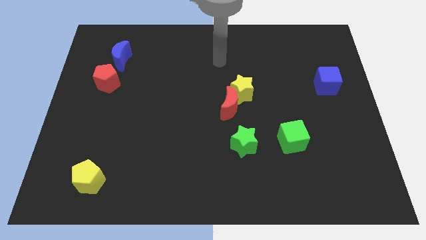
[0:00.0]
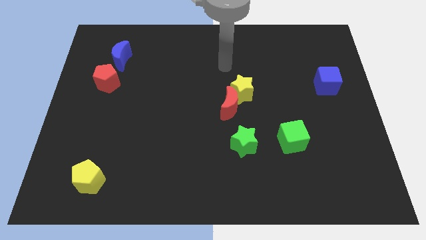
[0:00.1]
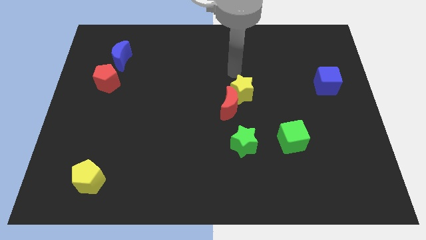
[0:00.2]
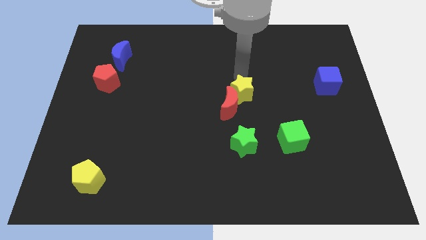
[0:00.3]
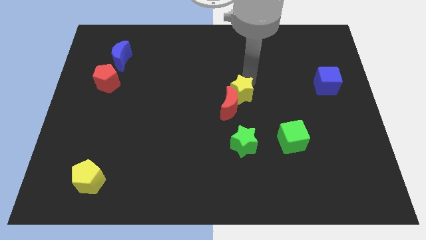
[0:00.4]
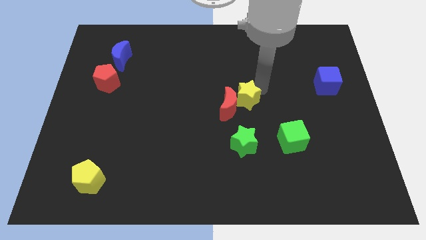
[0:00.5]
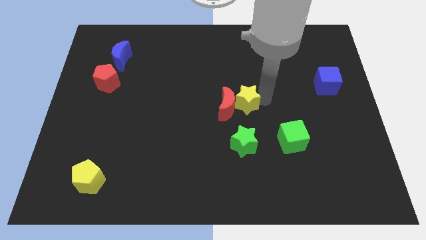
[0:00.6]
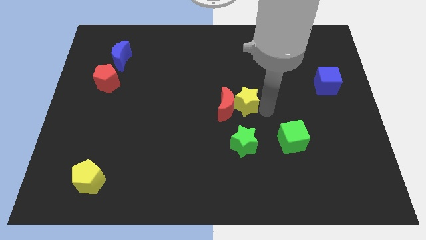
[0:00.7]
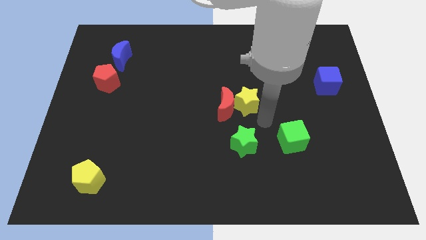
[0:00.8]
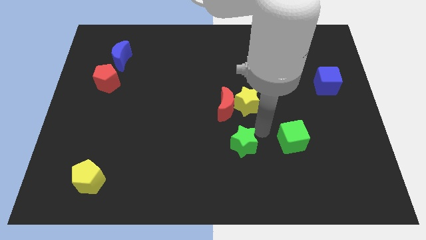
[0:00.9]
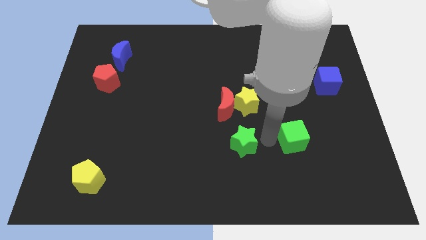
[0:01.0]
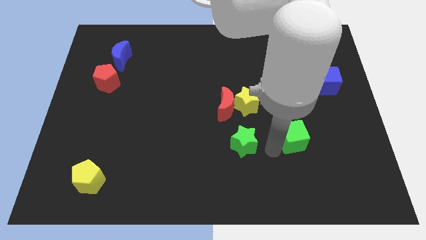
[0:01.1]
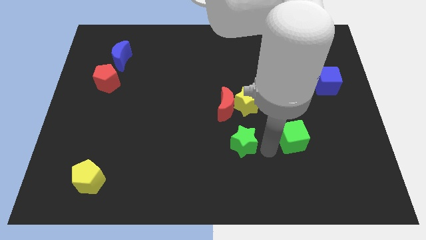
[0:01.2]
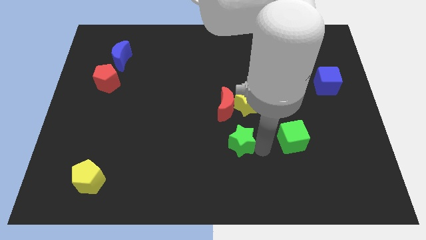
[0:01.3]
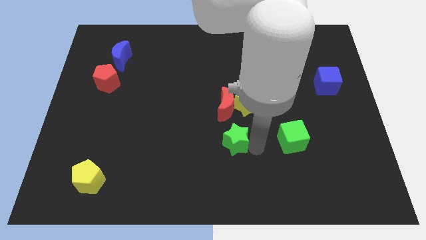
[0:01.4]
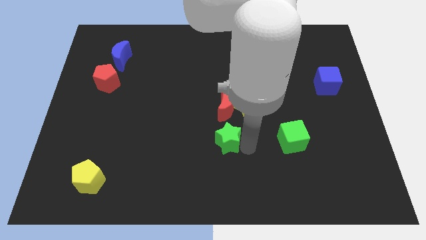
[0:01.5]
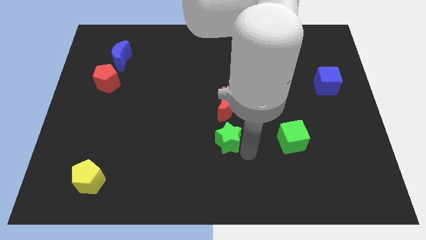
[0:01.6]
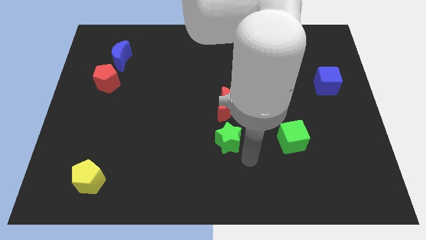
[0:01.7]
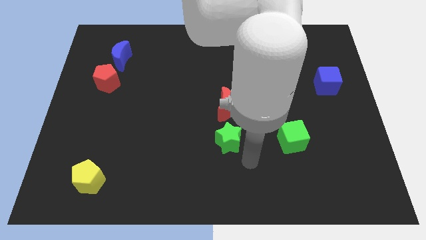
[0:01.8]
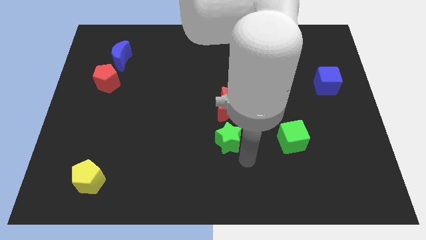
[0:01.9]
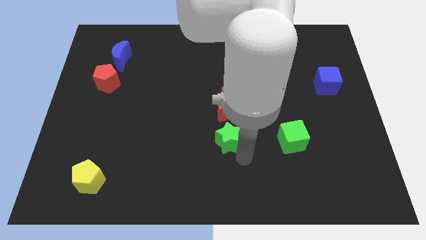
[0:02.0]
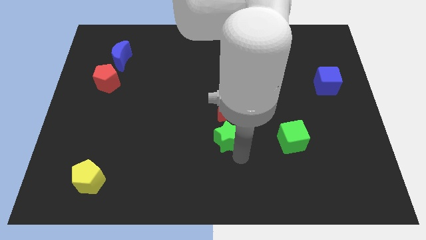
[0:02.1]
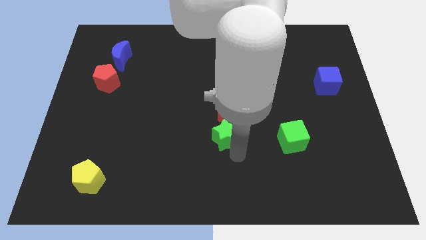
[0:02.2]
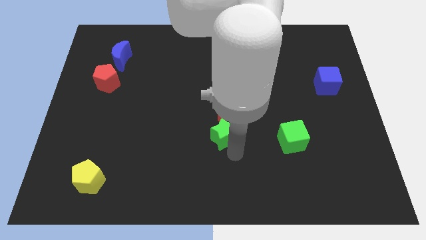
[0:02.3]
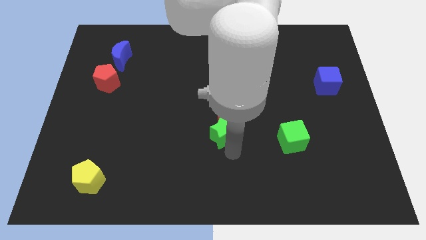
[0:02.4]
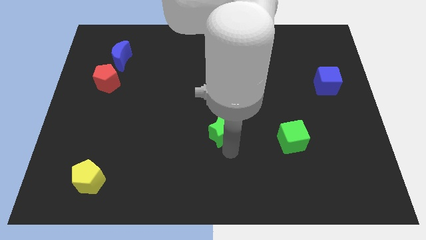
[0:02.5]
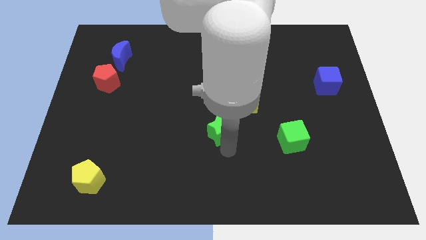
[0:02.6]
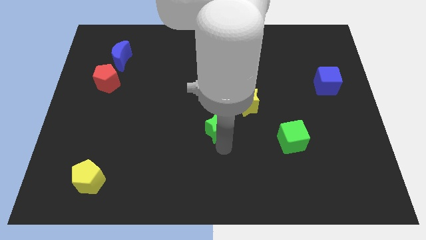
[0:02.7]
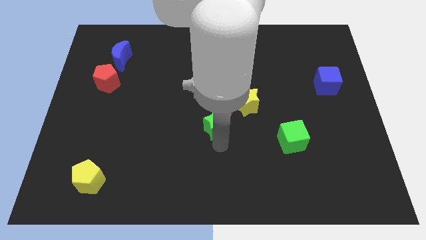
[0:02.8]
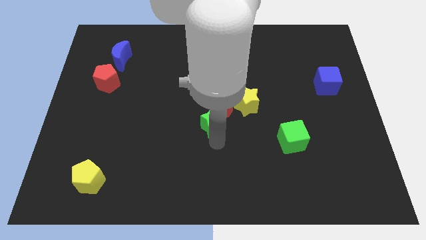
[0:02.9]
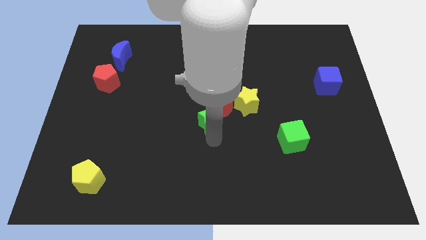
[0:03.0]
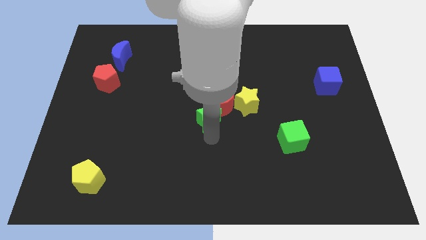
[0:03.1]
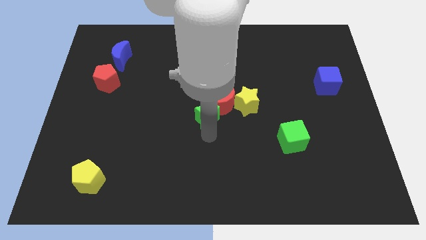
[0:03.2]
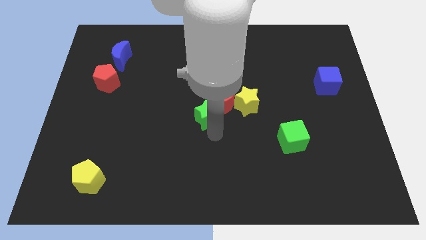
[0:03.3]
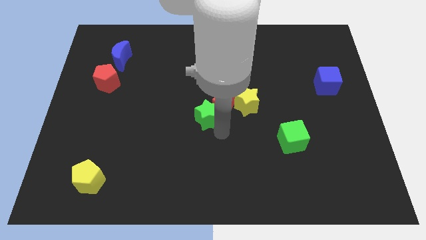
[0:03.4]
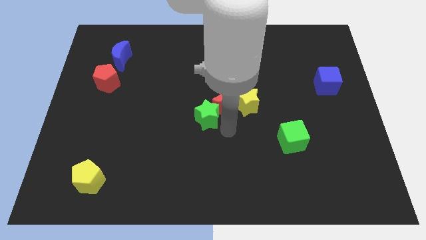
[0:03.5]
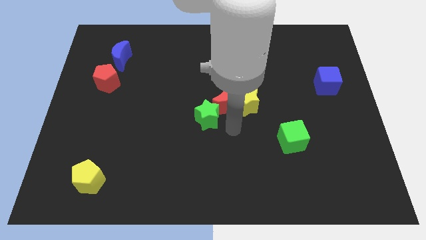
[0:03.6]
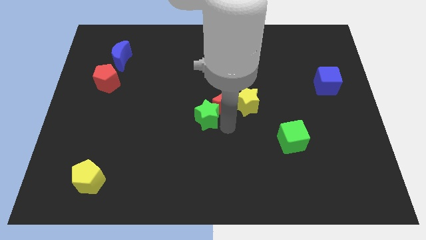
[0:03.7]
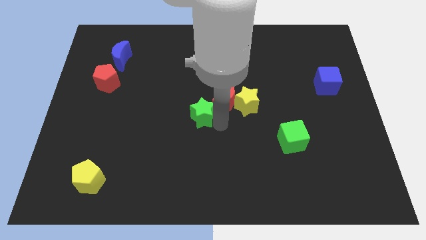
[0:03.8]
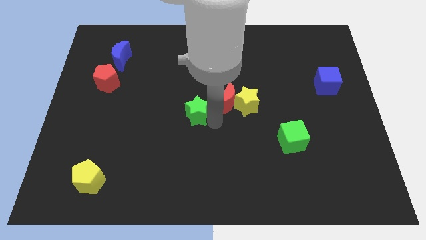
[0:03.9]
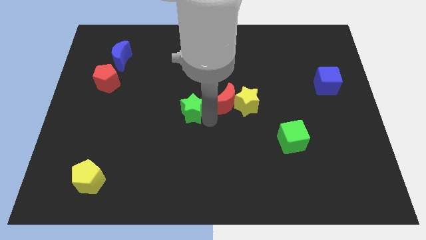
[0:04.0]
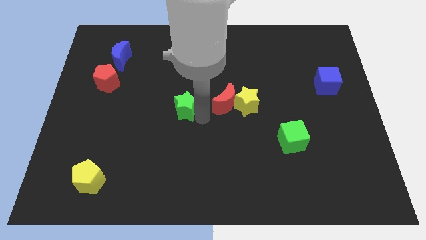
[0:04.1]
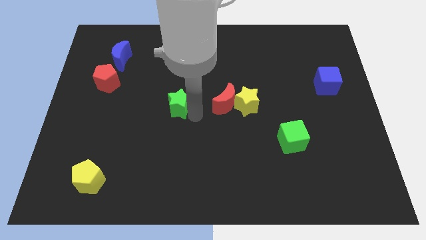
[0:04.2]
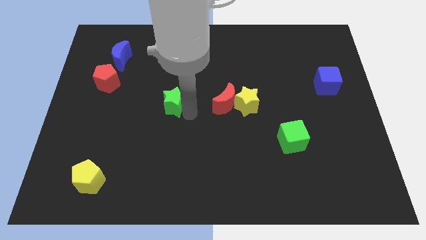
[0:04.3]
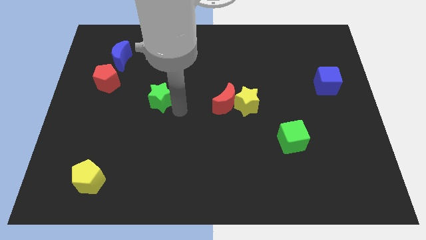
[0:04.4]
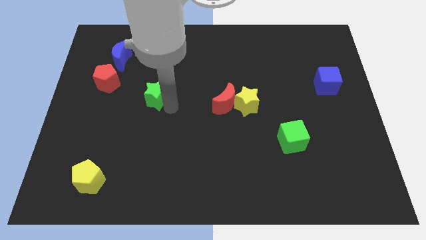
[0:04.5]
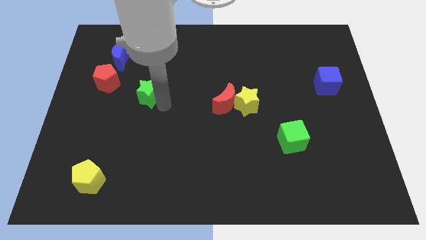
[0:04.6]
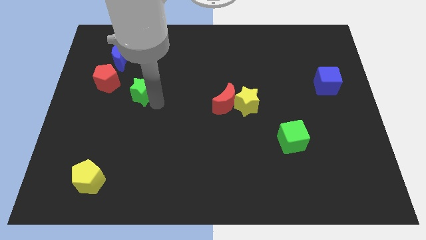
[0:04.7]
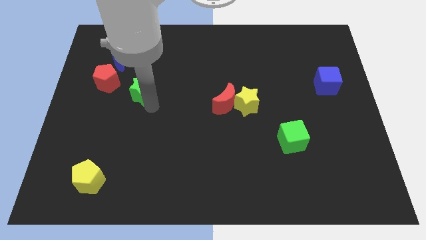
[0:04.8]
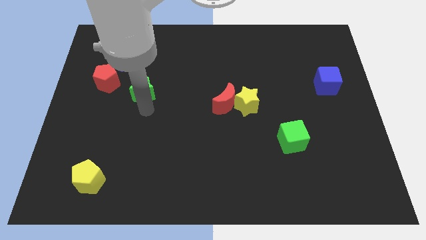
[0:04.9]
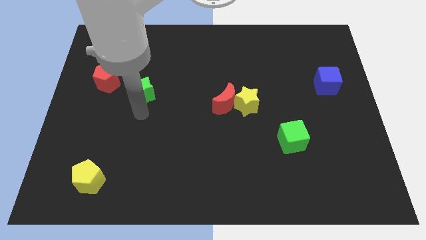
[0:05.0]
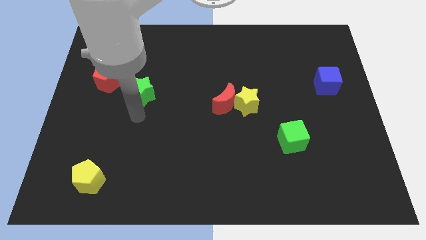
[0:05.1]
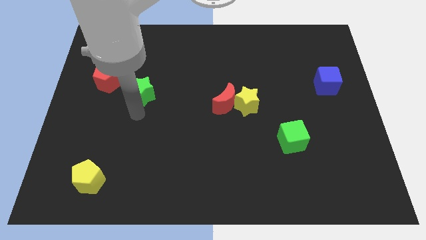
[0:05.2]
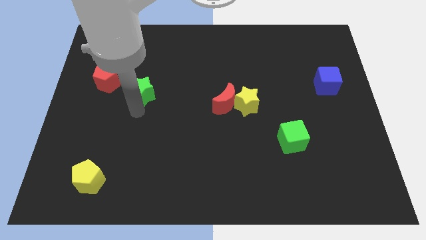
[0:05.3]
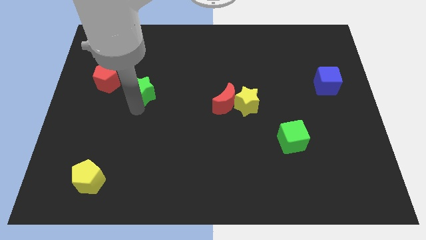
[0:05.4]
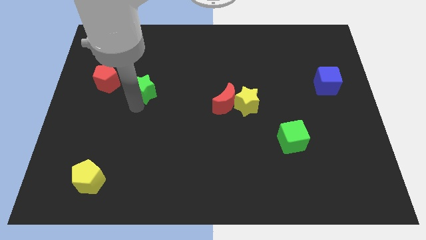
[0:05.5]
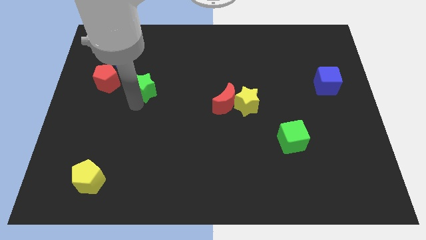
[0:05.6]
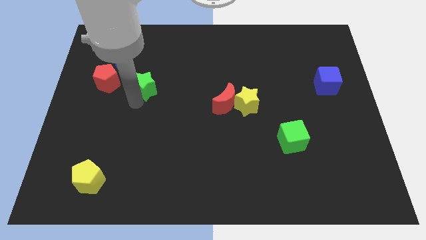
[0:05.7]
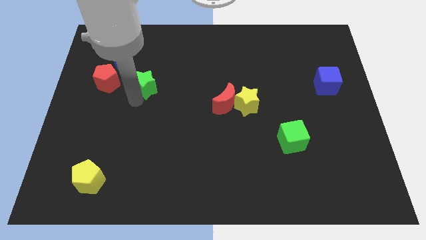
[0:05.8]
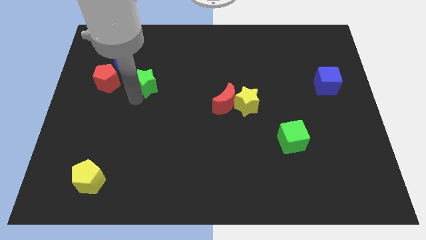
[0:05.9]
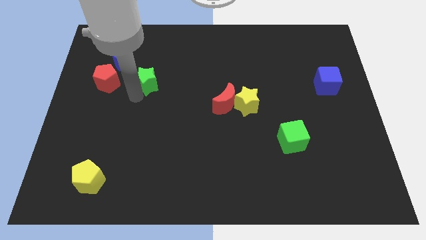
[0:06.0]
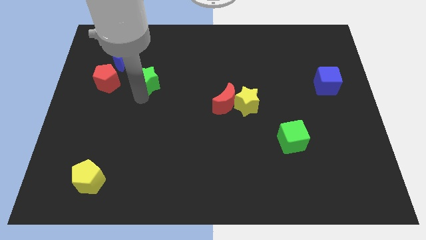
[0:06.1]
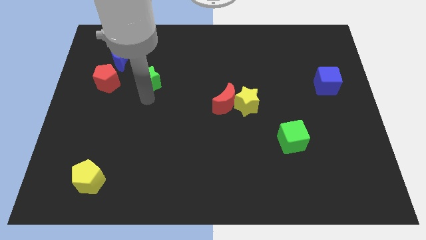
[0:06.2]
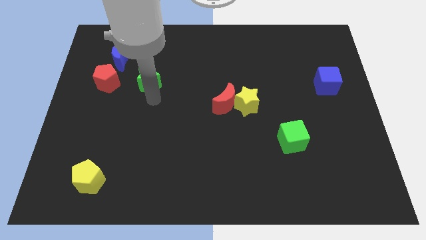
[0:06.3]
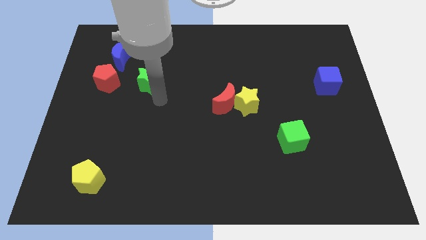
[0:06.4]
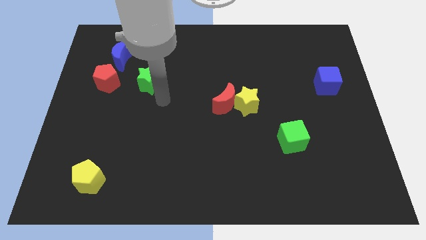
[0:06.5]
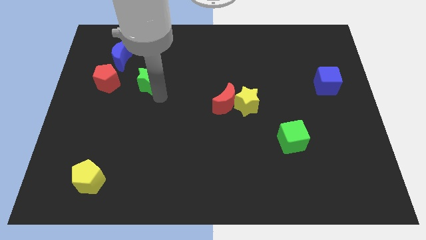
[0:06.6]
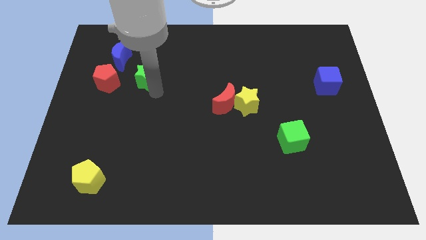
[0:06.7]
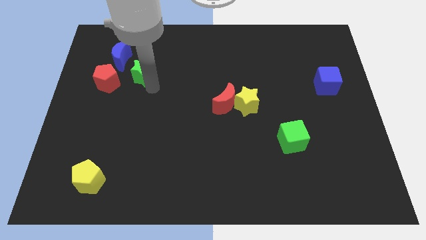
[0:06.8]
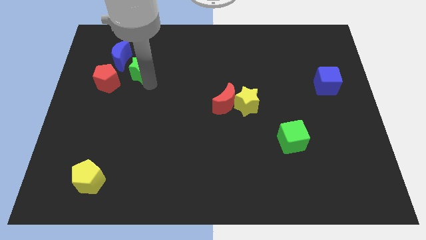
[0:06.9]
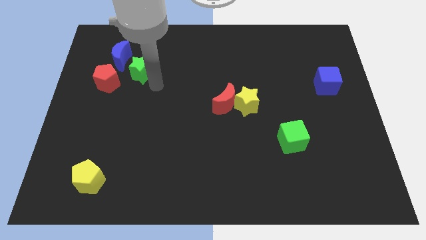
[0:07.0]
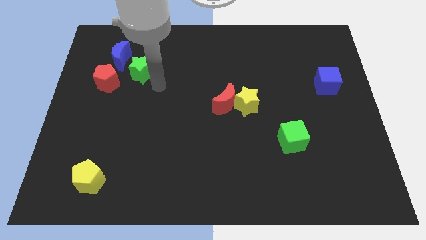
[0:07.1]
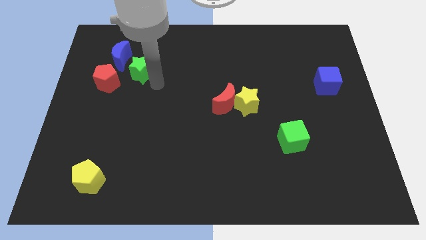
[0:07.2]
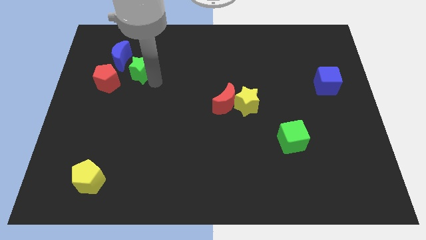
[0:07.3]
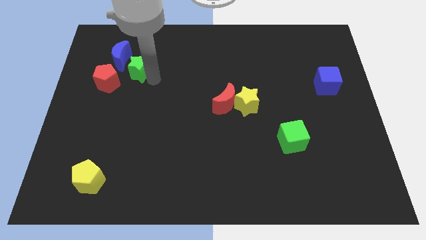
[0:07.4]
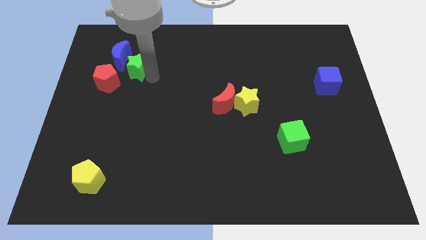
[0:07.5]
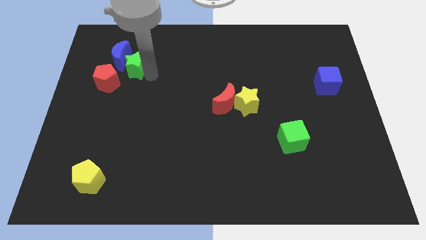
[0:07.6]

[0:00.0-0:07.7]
push the green star to the blue moon
